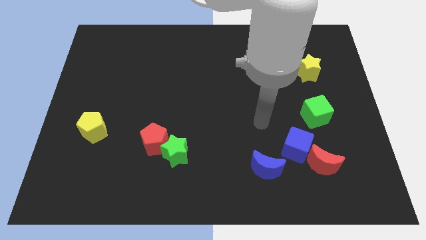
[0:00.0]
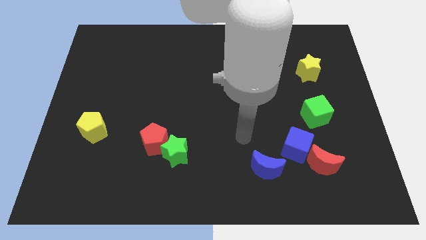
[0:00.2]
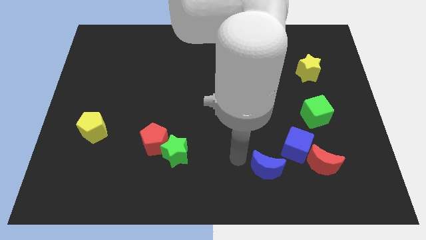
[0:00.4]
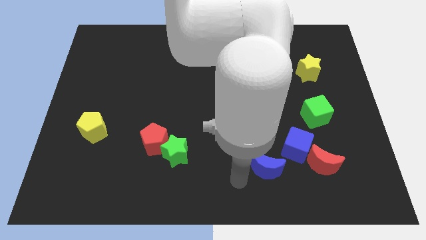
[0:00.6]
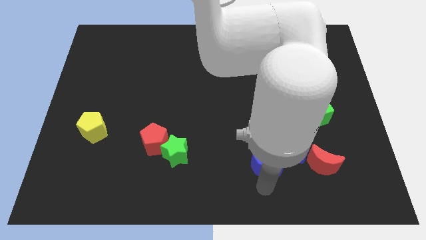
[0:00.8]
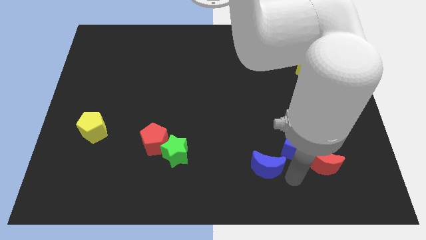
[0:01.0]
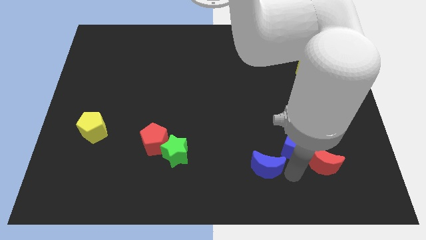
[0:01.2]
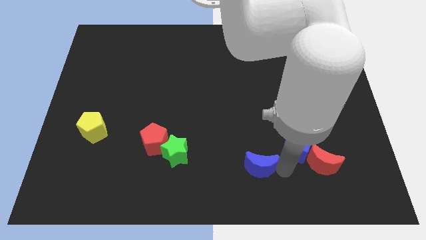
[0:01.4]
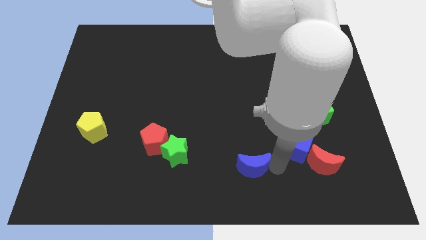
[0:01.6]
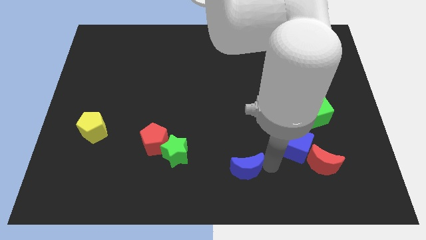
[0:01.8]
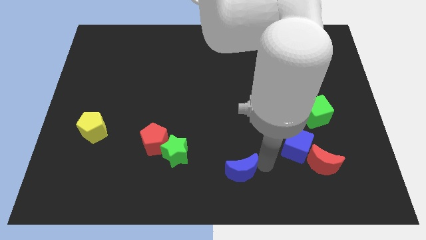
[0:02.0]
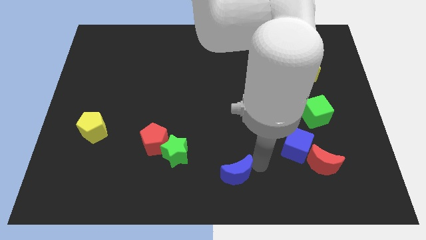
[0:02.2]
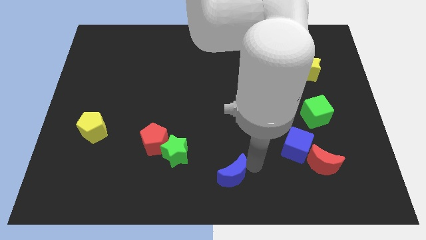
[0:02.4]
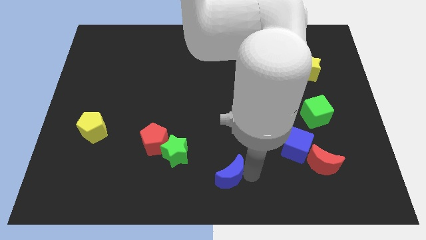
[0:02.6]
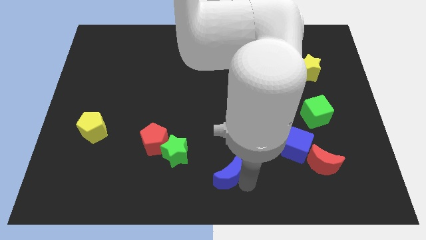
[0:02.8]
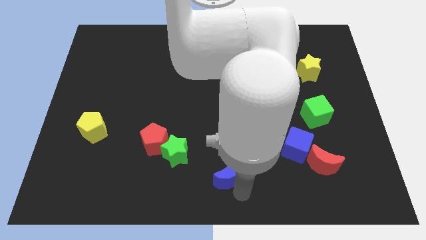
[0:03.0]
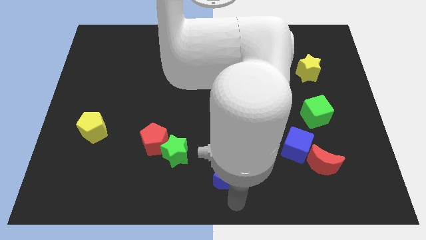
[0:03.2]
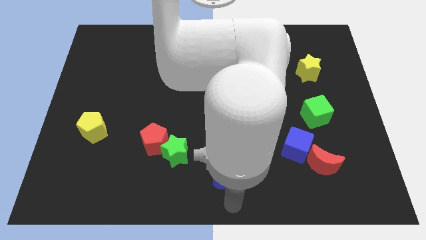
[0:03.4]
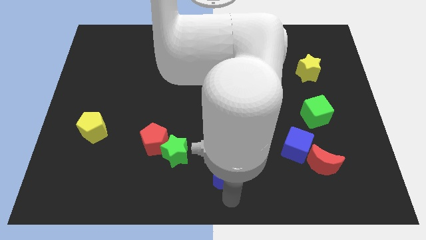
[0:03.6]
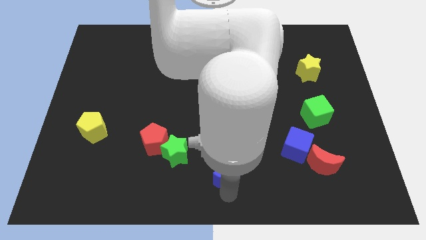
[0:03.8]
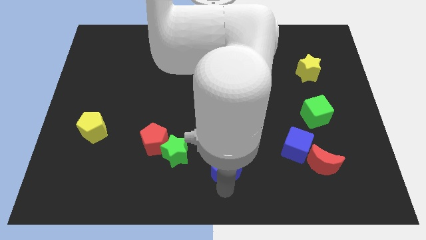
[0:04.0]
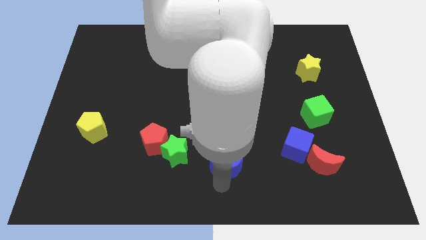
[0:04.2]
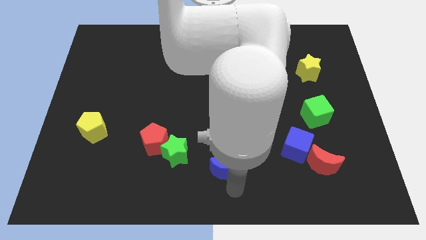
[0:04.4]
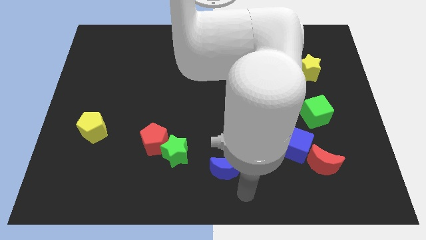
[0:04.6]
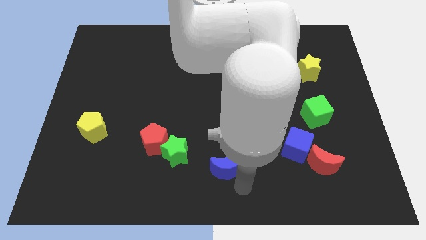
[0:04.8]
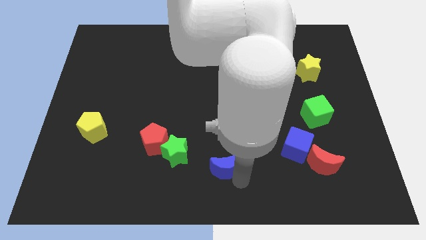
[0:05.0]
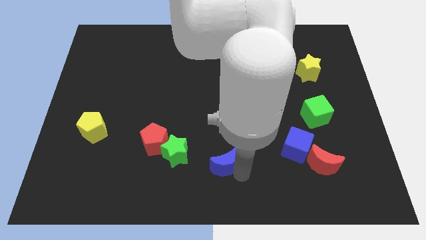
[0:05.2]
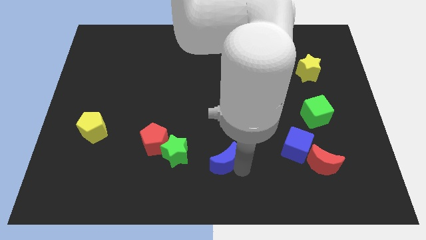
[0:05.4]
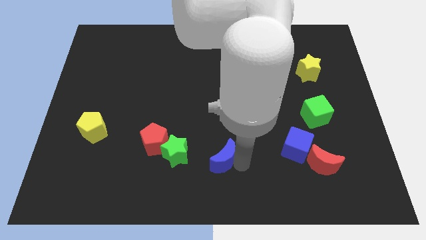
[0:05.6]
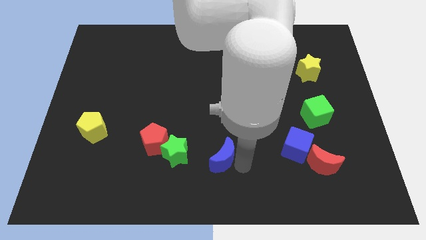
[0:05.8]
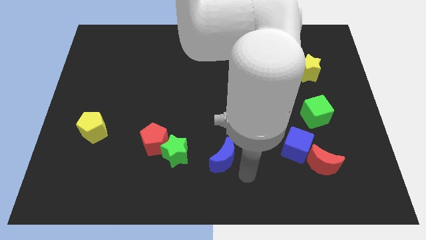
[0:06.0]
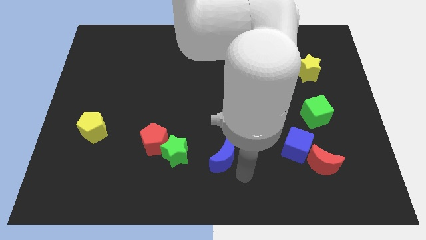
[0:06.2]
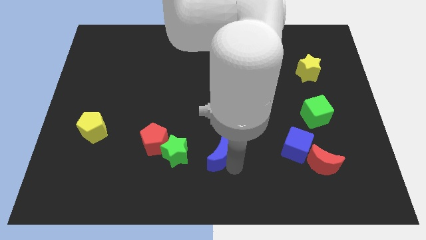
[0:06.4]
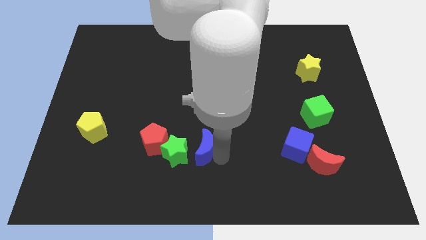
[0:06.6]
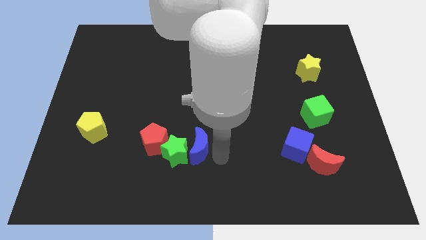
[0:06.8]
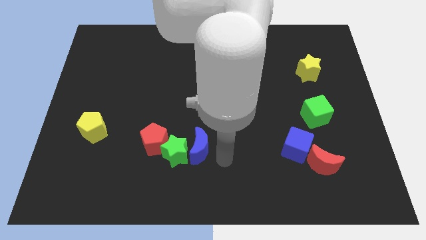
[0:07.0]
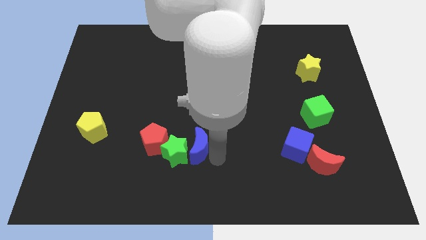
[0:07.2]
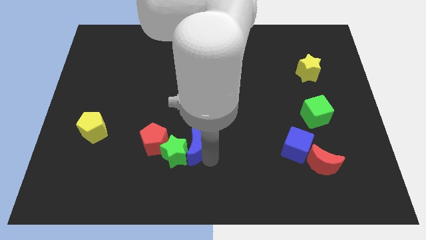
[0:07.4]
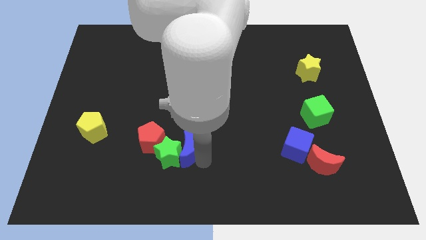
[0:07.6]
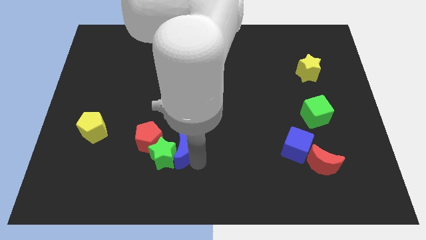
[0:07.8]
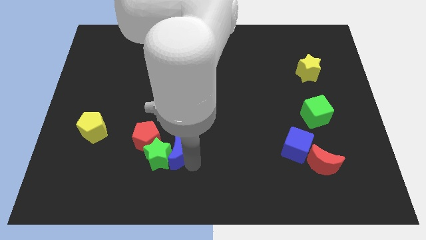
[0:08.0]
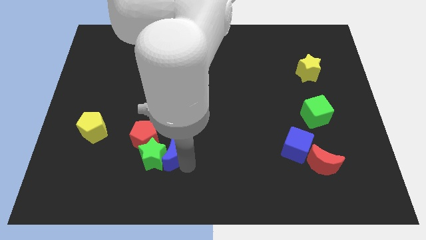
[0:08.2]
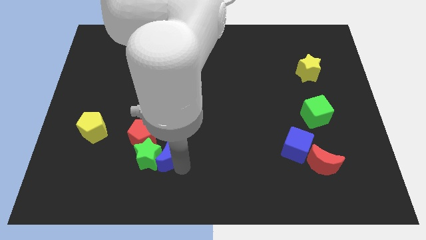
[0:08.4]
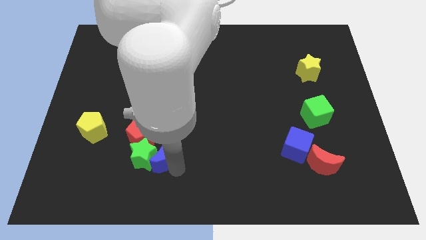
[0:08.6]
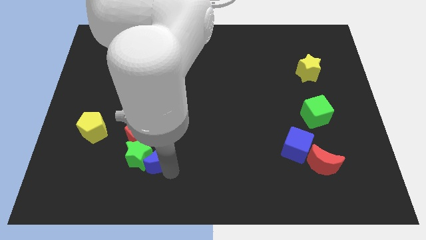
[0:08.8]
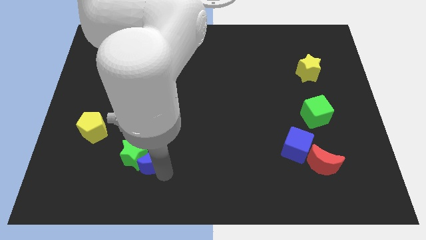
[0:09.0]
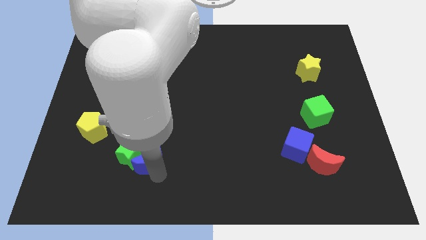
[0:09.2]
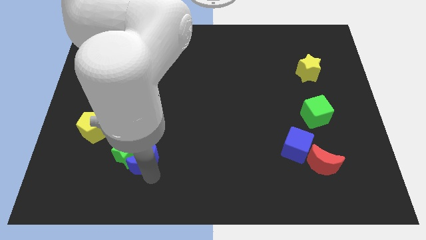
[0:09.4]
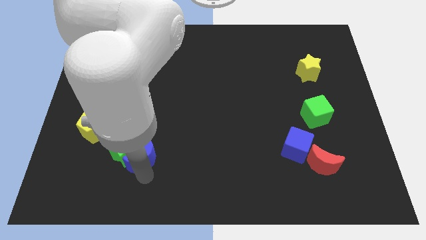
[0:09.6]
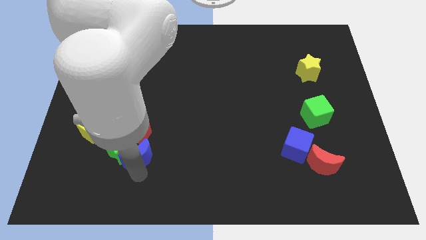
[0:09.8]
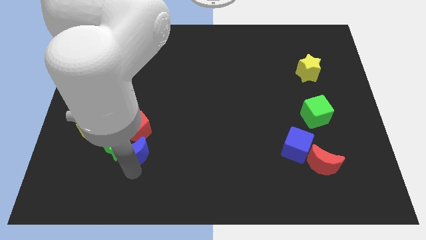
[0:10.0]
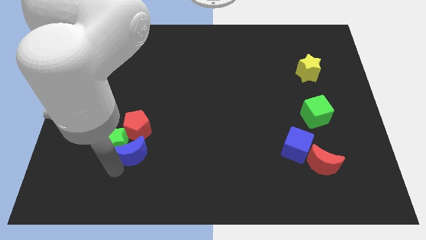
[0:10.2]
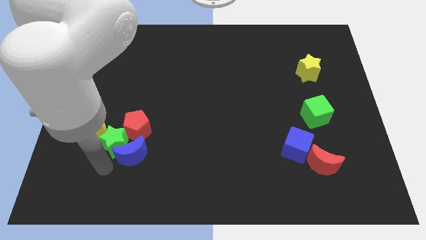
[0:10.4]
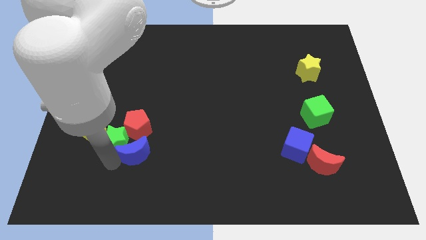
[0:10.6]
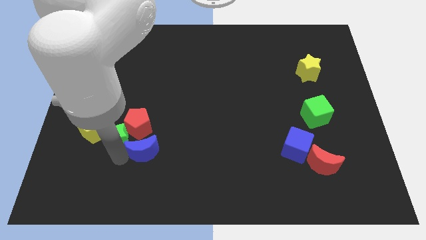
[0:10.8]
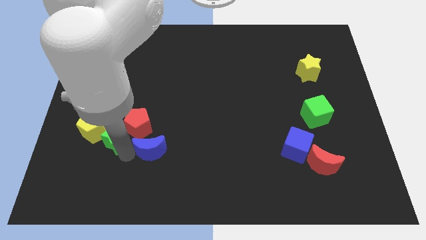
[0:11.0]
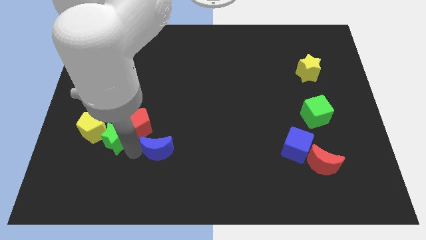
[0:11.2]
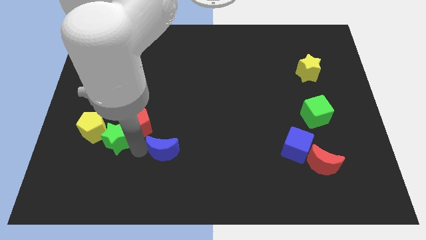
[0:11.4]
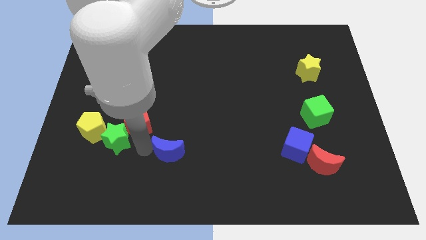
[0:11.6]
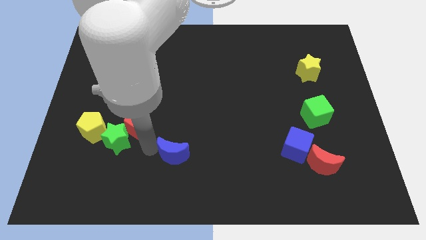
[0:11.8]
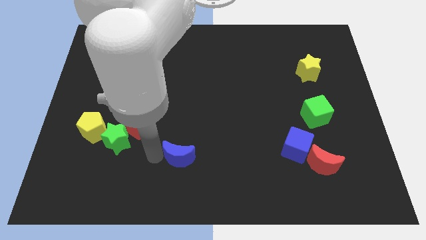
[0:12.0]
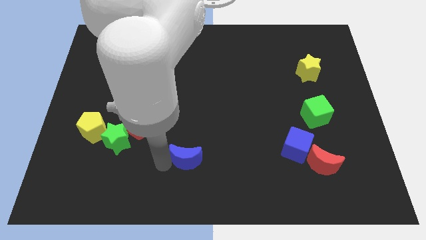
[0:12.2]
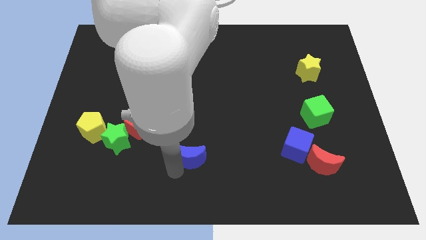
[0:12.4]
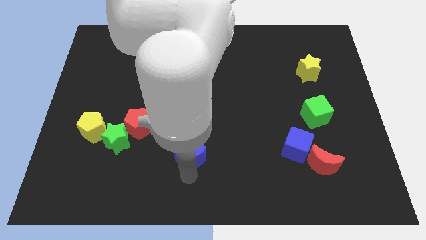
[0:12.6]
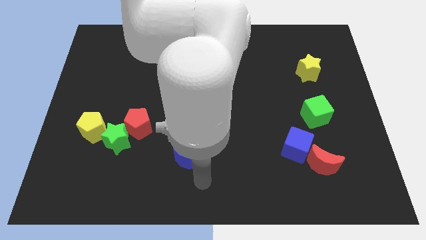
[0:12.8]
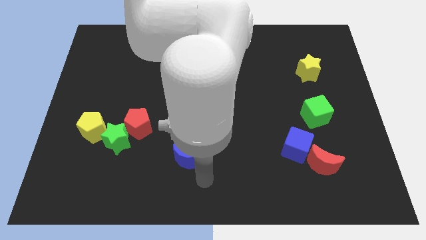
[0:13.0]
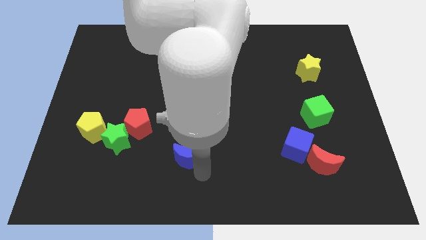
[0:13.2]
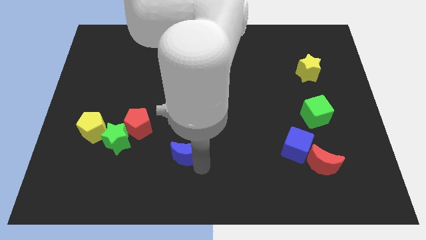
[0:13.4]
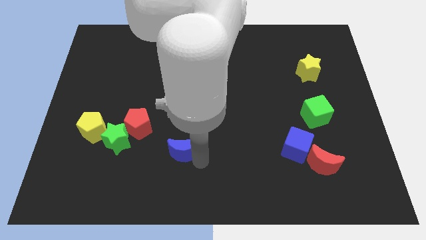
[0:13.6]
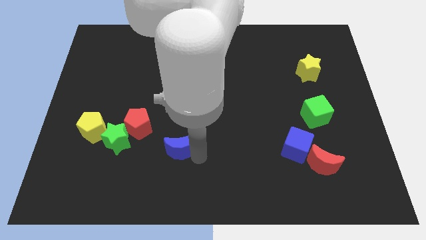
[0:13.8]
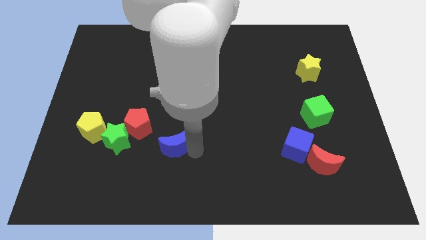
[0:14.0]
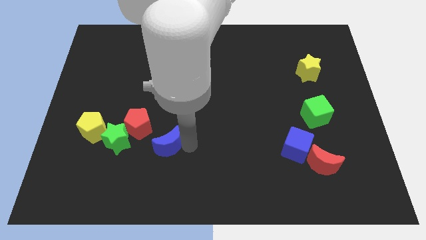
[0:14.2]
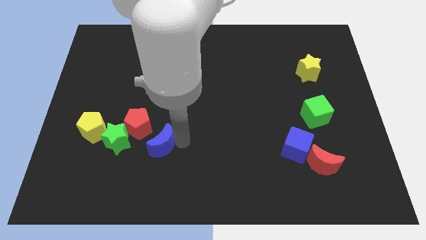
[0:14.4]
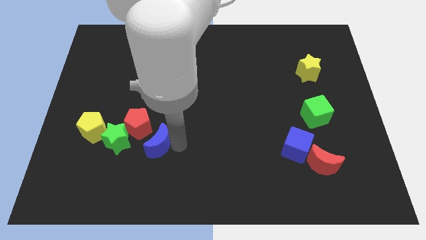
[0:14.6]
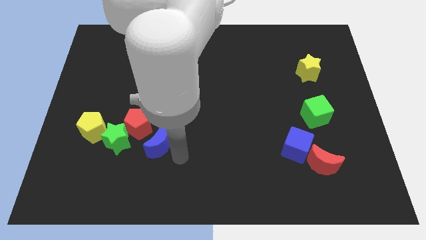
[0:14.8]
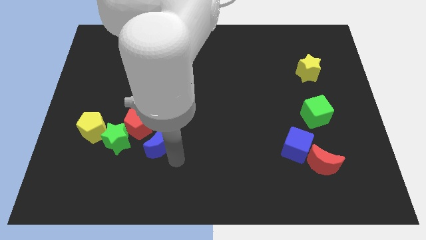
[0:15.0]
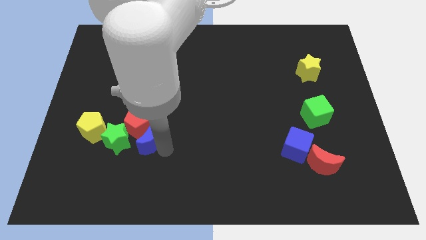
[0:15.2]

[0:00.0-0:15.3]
push the blue moon close to the red pentagon
